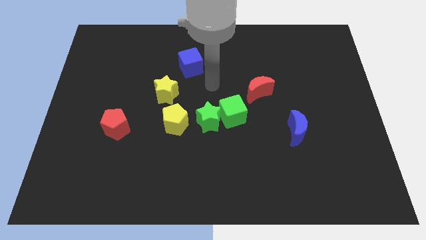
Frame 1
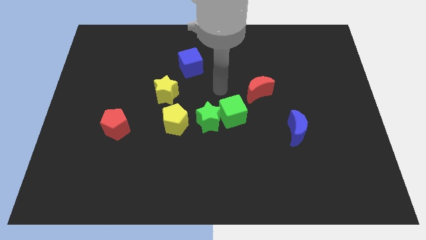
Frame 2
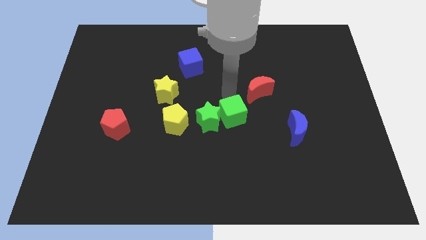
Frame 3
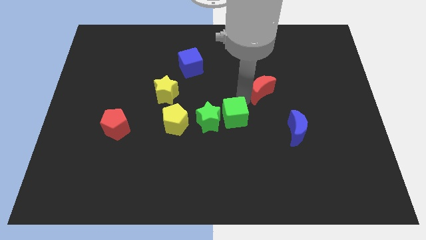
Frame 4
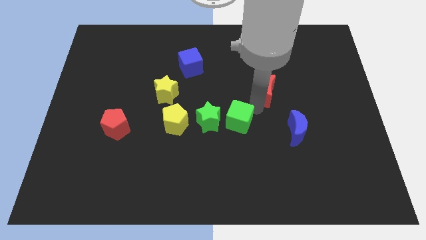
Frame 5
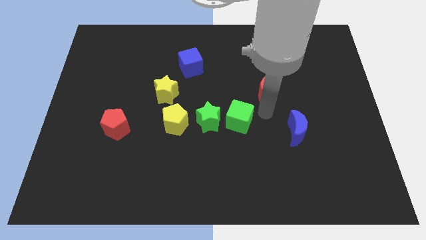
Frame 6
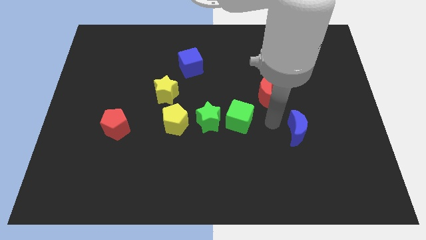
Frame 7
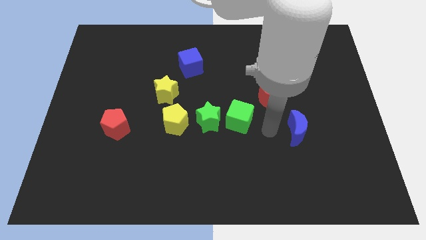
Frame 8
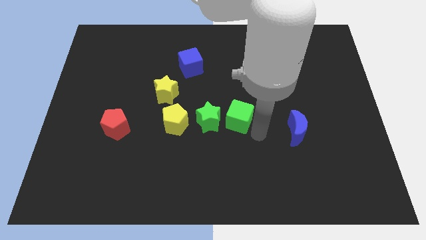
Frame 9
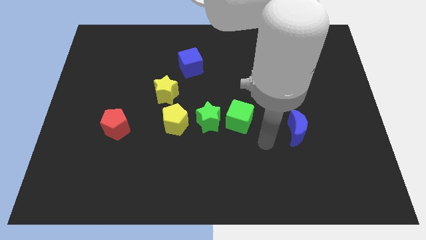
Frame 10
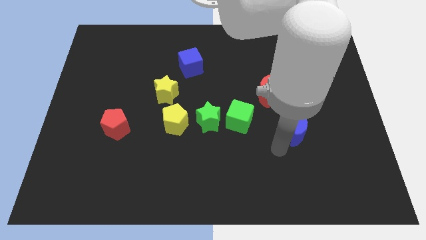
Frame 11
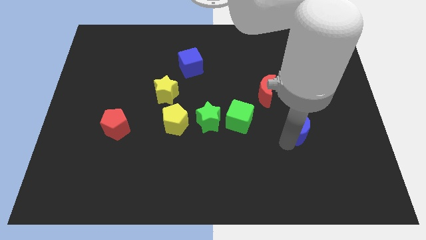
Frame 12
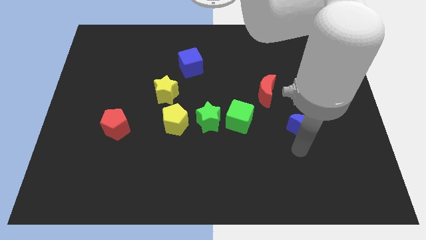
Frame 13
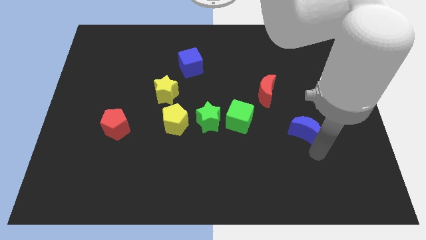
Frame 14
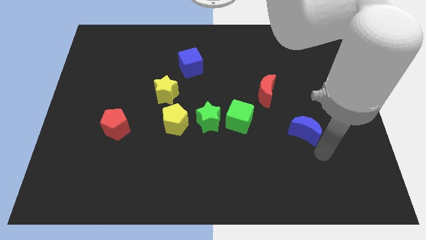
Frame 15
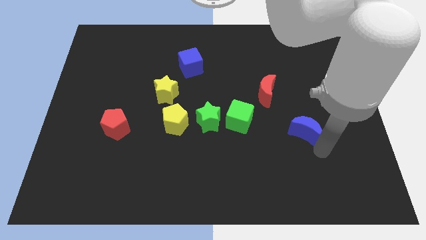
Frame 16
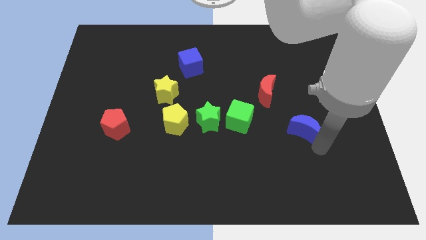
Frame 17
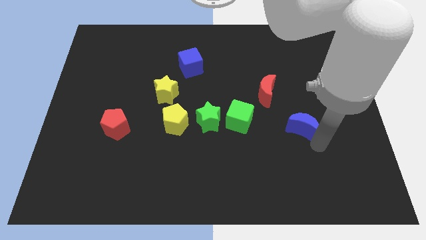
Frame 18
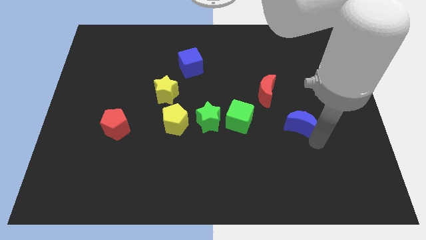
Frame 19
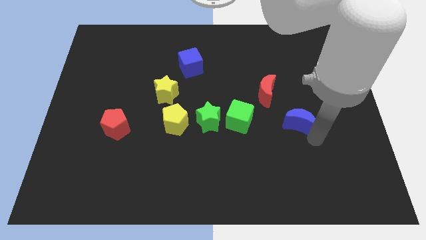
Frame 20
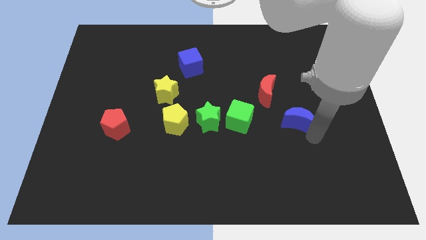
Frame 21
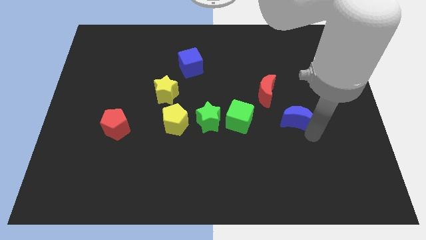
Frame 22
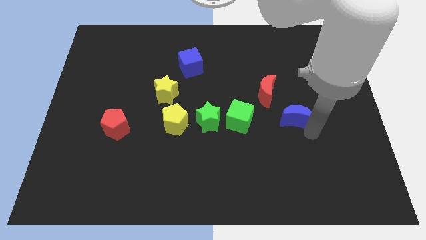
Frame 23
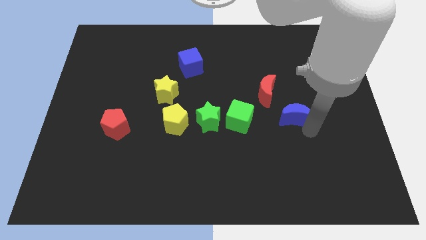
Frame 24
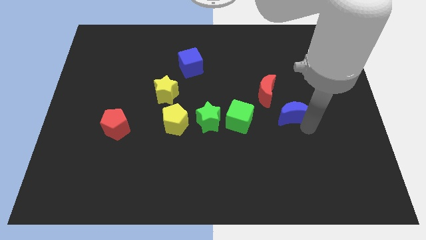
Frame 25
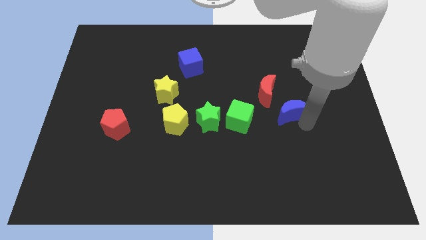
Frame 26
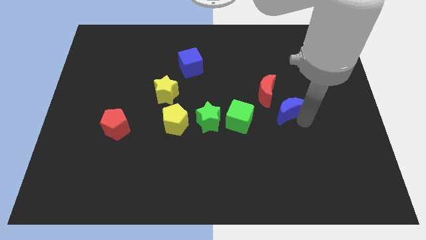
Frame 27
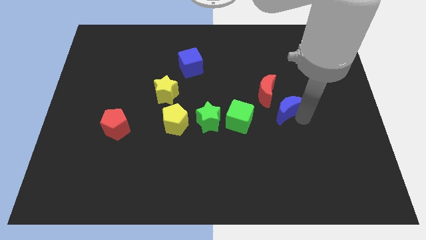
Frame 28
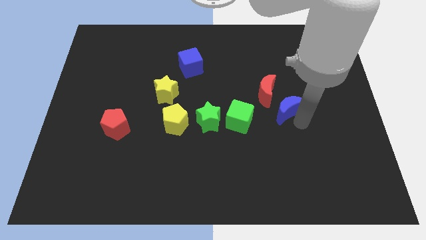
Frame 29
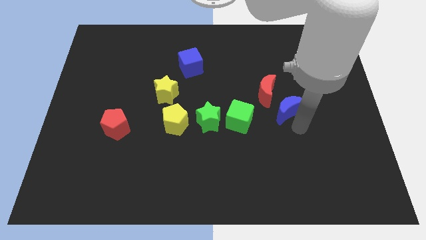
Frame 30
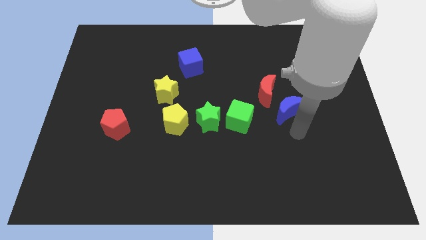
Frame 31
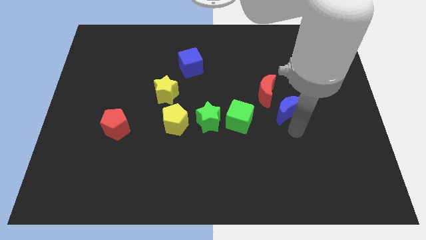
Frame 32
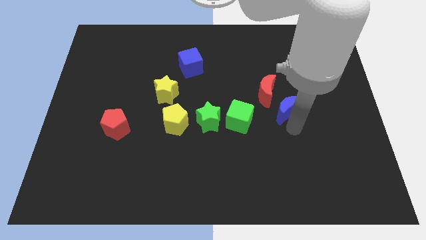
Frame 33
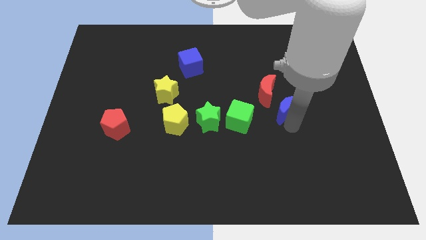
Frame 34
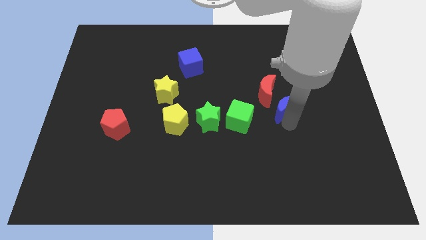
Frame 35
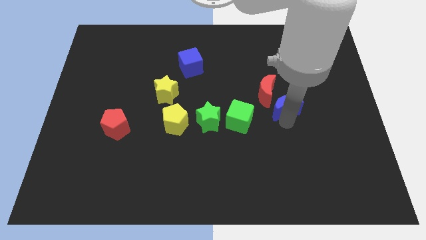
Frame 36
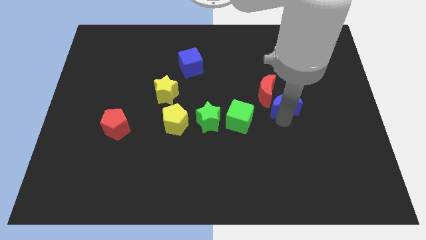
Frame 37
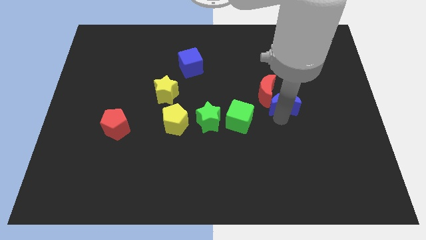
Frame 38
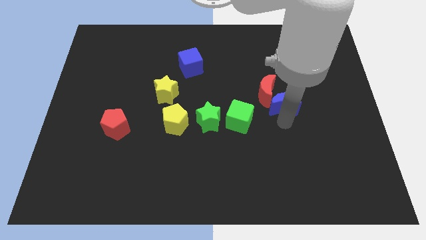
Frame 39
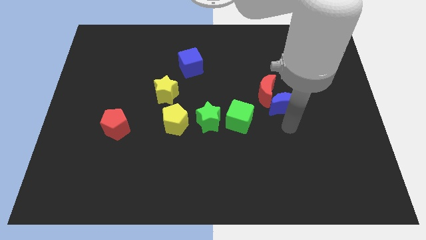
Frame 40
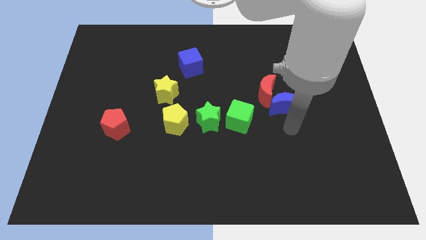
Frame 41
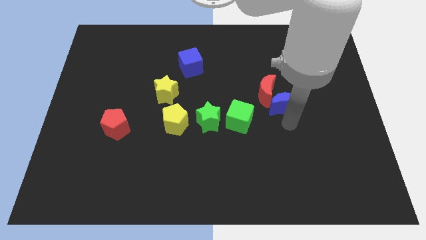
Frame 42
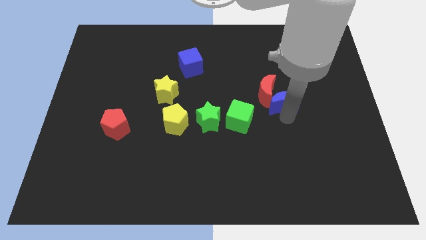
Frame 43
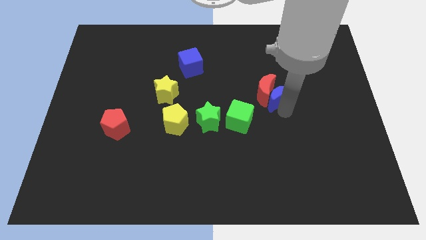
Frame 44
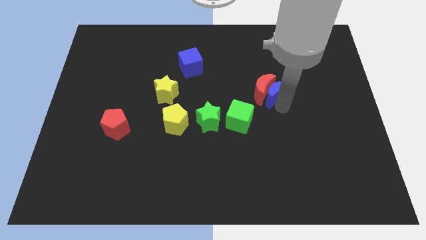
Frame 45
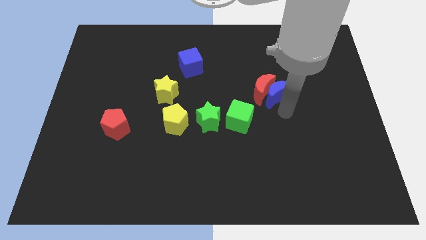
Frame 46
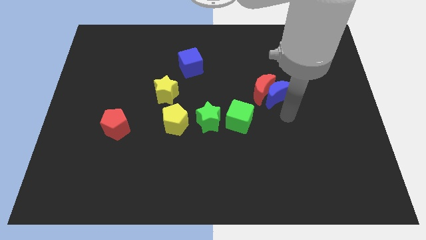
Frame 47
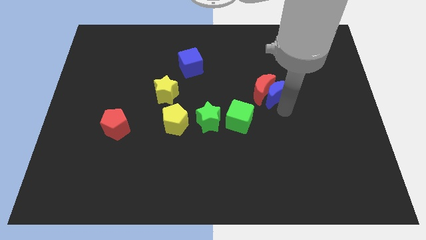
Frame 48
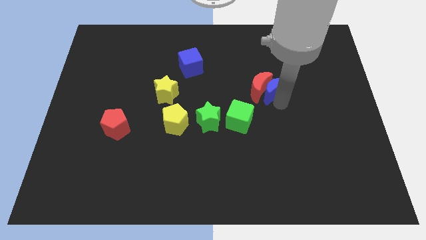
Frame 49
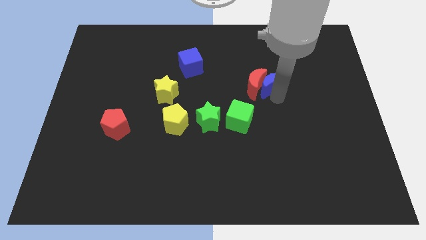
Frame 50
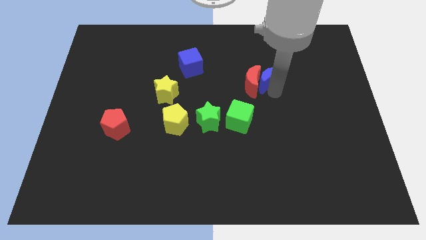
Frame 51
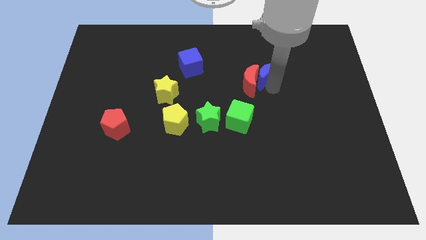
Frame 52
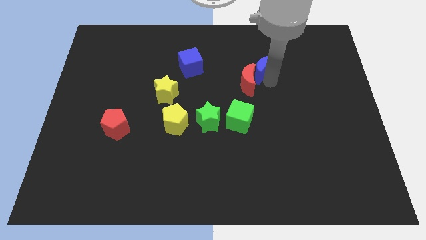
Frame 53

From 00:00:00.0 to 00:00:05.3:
slide the blue moon to the top of the red moon

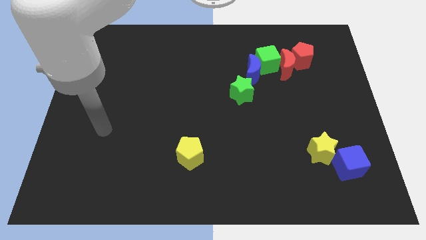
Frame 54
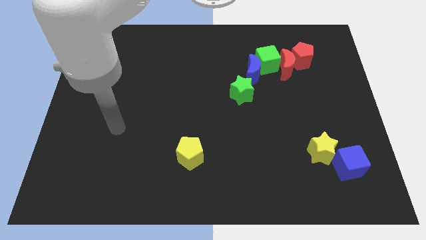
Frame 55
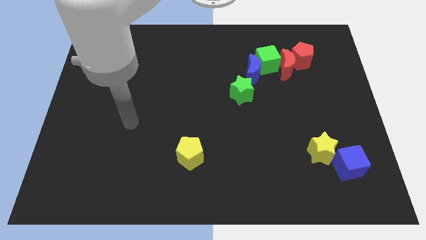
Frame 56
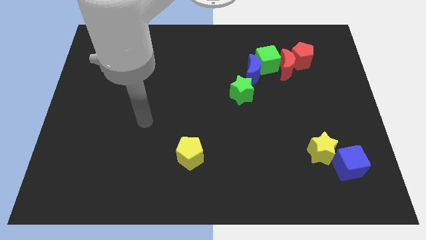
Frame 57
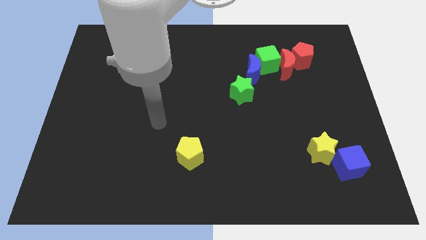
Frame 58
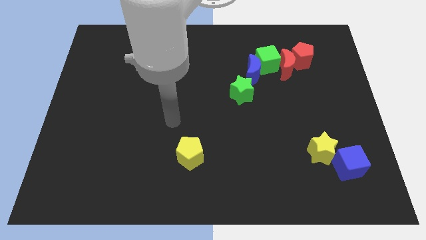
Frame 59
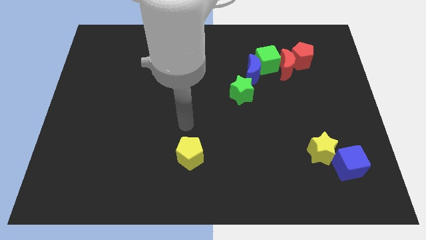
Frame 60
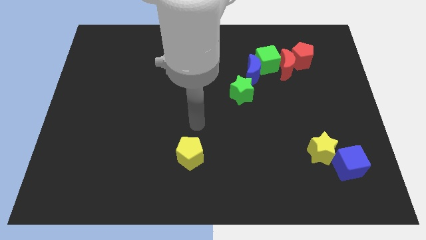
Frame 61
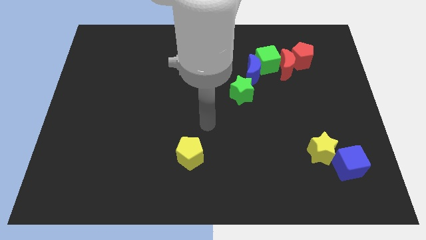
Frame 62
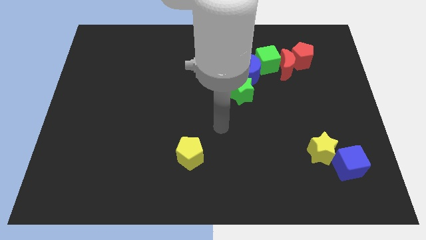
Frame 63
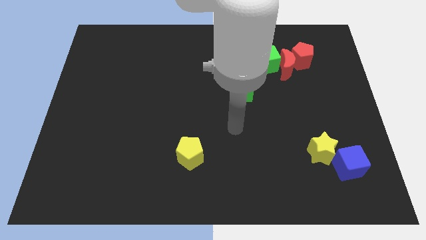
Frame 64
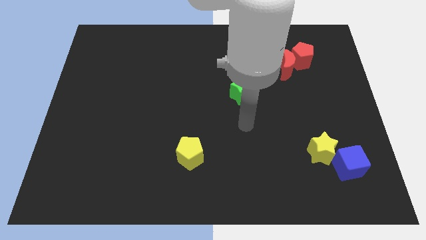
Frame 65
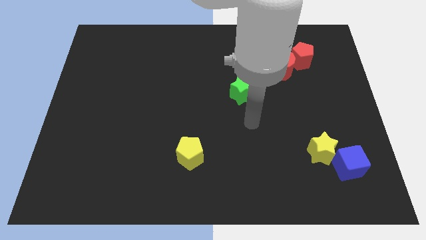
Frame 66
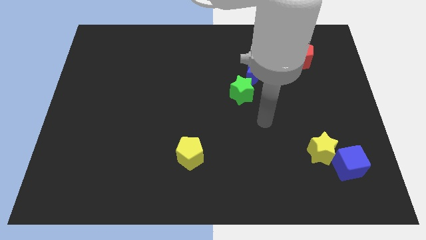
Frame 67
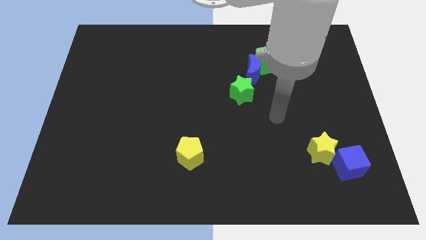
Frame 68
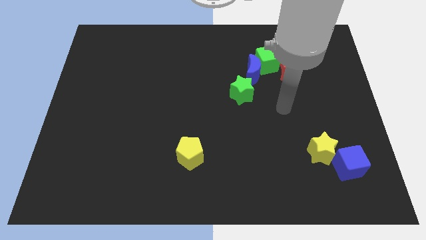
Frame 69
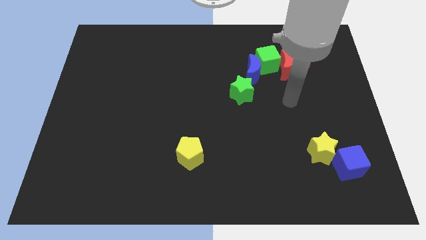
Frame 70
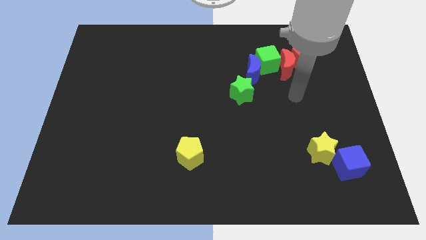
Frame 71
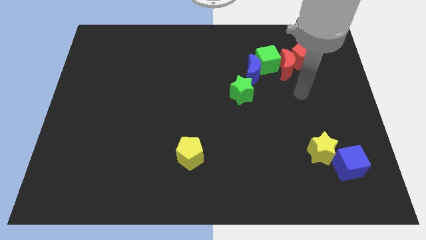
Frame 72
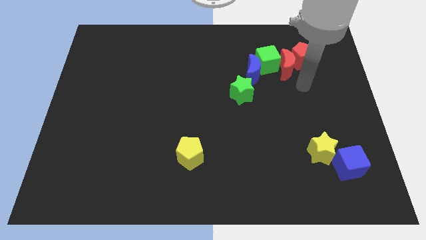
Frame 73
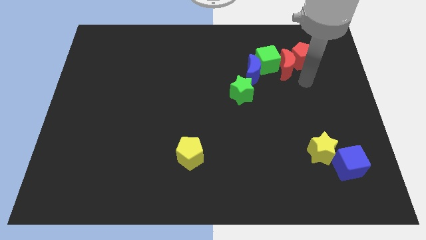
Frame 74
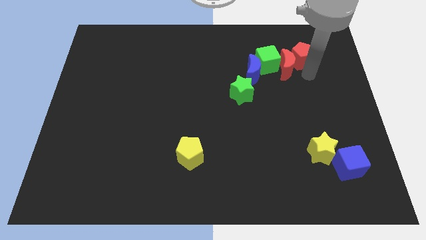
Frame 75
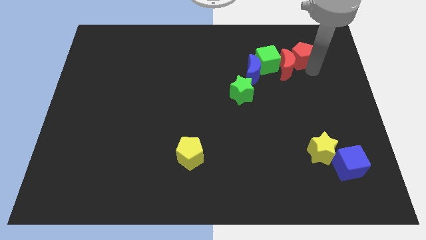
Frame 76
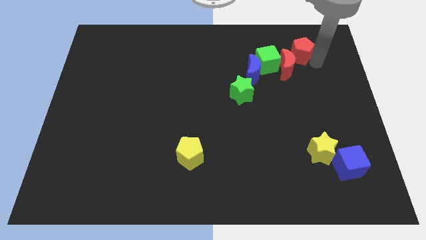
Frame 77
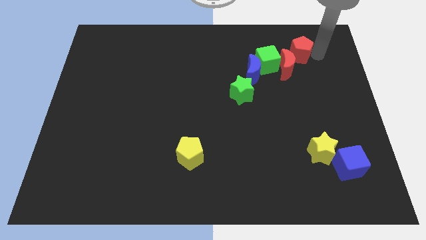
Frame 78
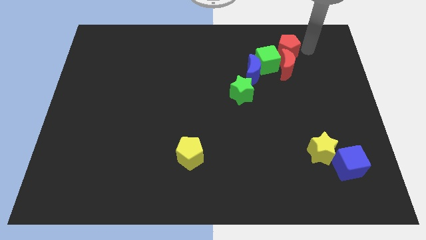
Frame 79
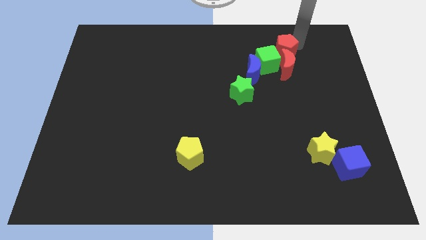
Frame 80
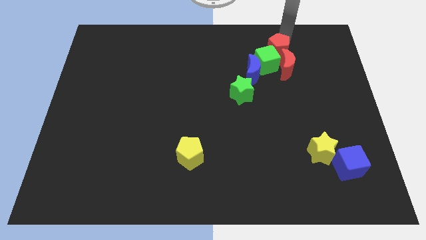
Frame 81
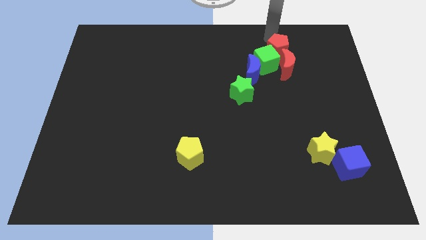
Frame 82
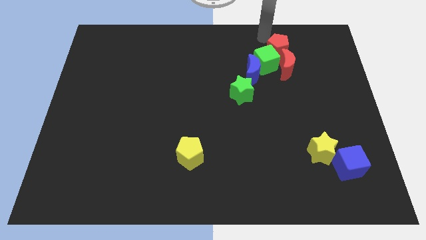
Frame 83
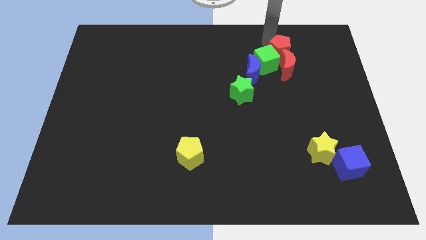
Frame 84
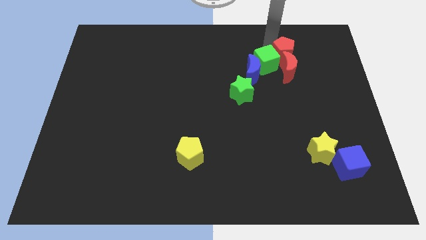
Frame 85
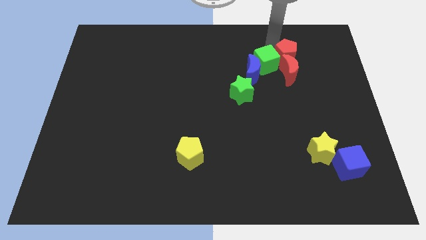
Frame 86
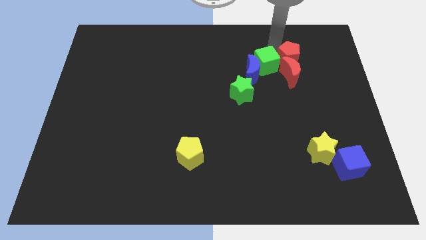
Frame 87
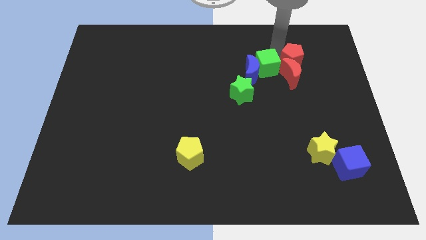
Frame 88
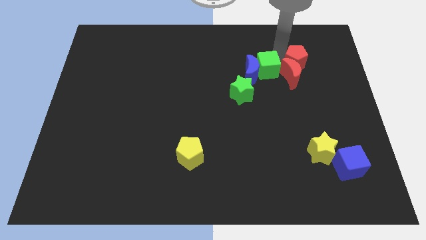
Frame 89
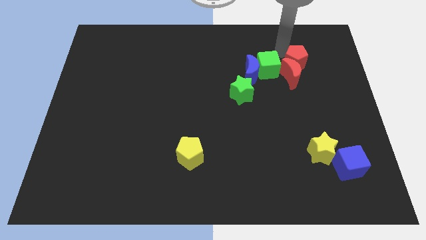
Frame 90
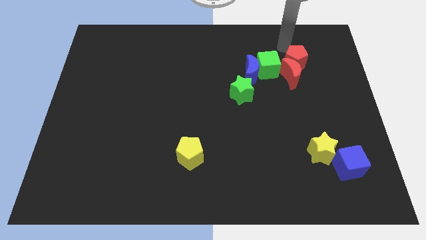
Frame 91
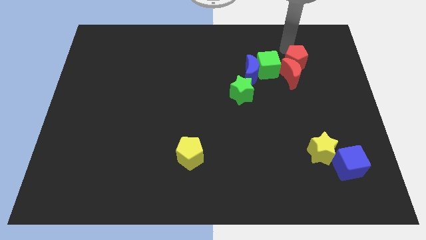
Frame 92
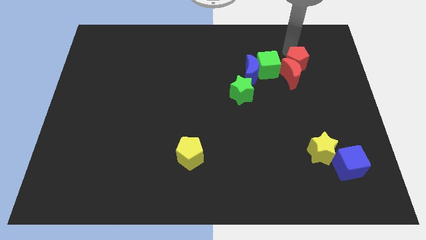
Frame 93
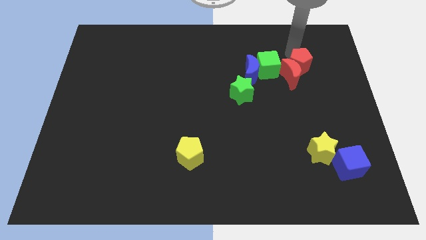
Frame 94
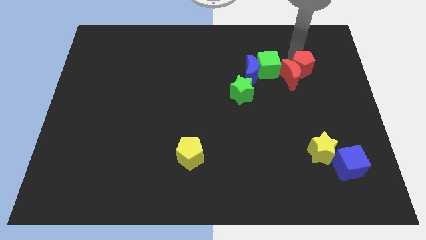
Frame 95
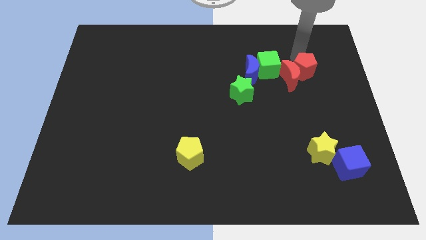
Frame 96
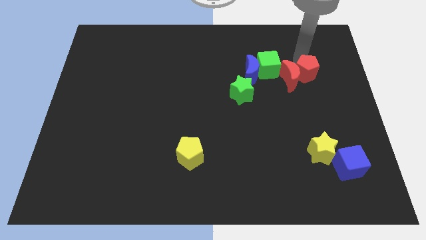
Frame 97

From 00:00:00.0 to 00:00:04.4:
move the red pentagon to the bottom right of the red moon
